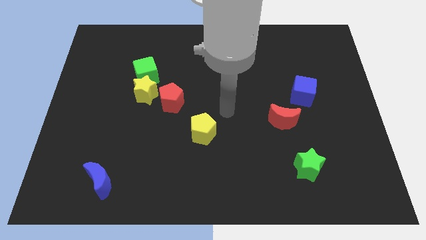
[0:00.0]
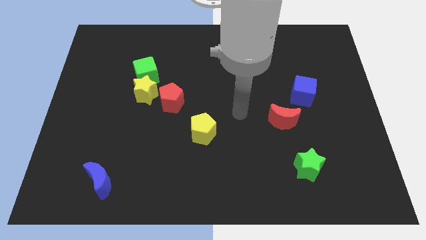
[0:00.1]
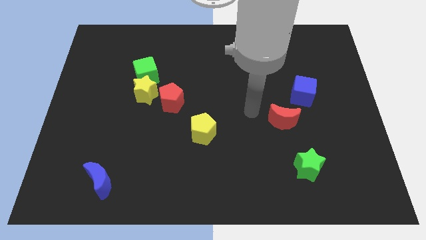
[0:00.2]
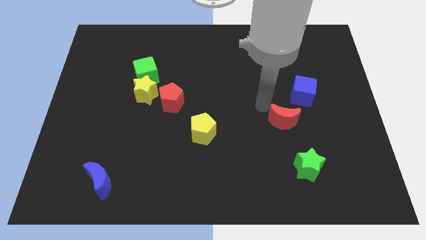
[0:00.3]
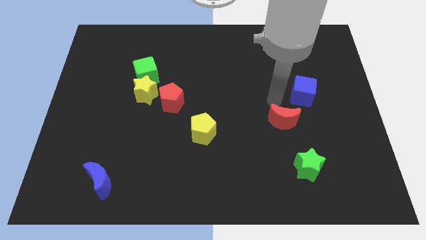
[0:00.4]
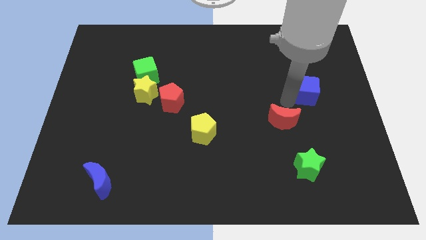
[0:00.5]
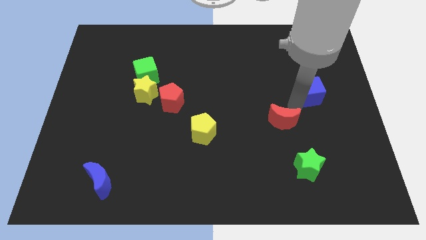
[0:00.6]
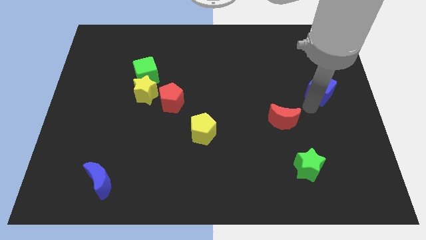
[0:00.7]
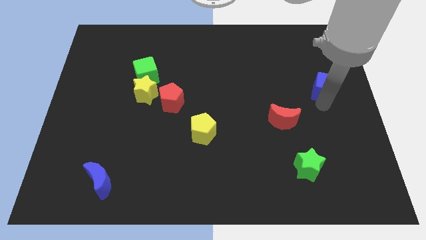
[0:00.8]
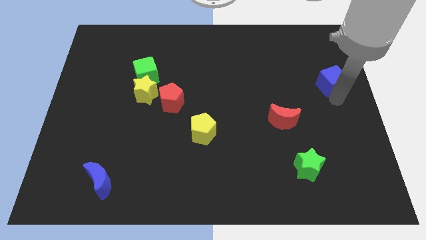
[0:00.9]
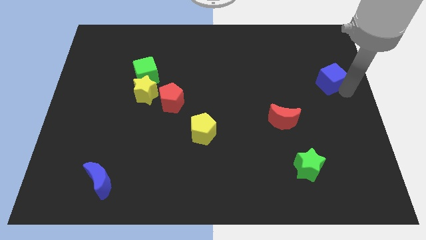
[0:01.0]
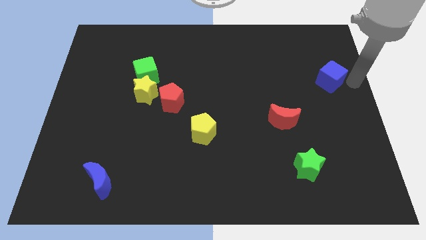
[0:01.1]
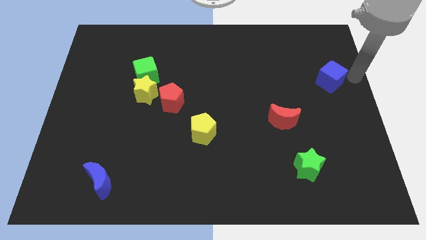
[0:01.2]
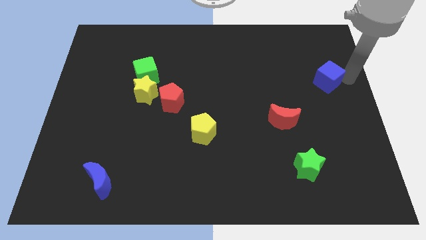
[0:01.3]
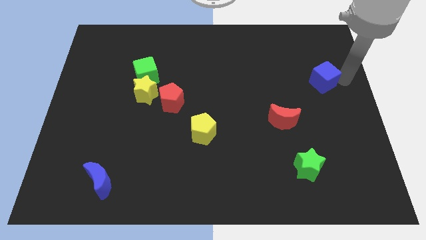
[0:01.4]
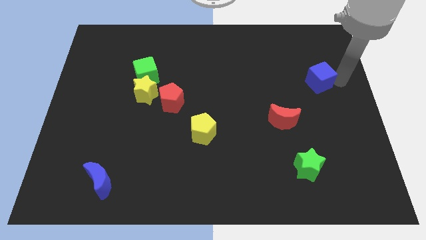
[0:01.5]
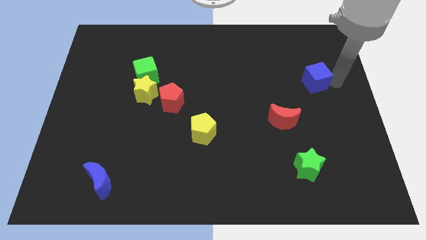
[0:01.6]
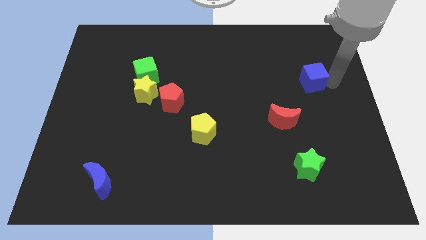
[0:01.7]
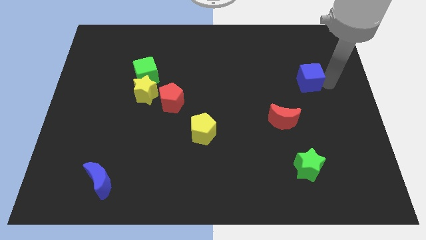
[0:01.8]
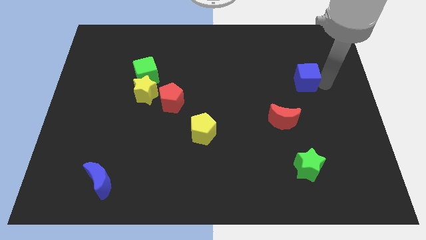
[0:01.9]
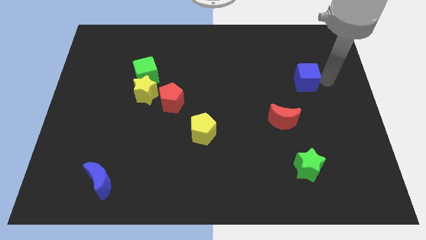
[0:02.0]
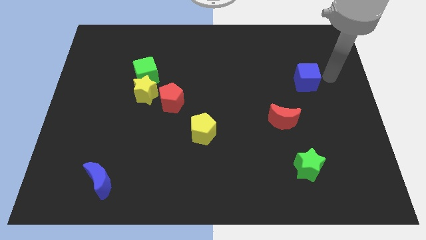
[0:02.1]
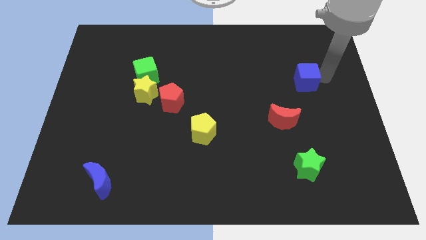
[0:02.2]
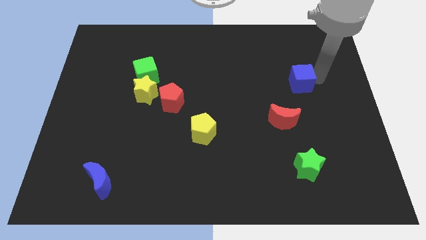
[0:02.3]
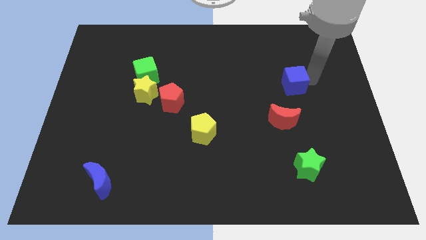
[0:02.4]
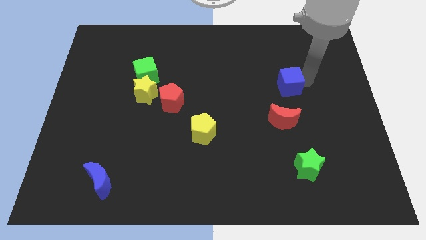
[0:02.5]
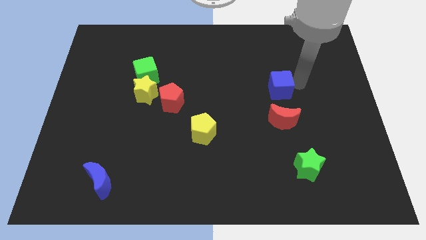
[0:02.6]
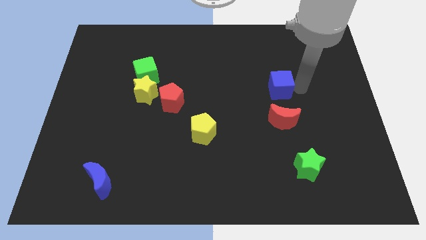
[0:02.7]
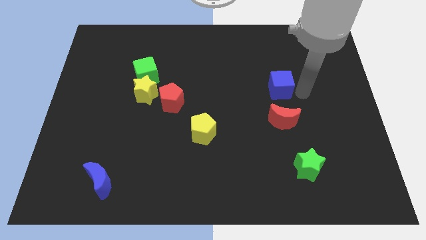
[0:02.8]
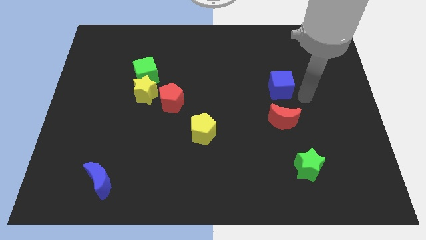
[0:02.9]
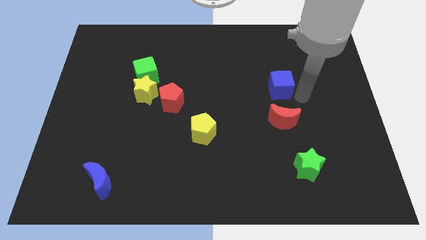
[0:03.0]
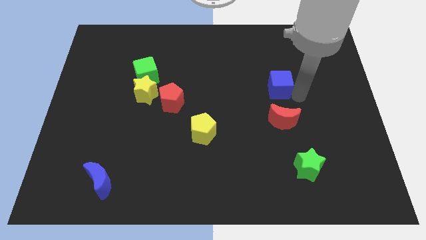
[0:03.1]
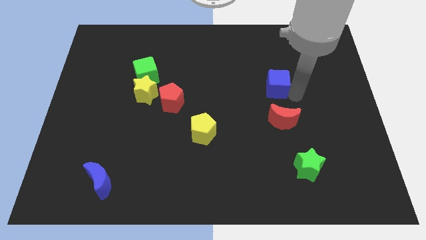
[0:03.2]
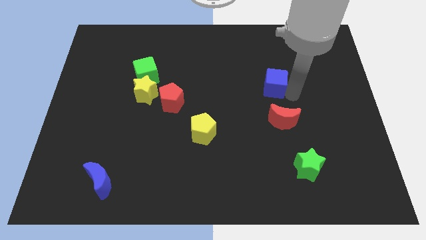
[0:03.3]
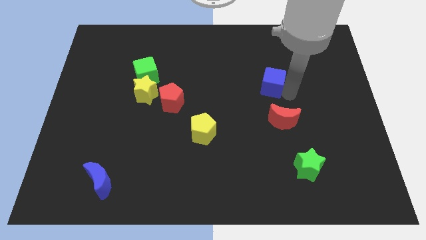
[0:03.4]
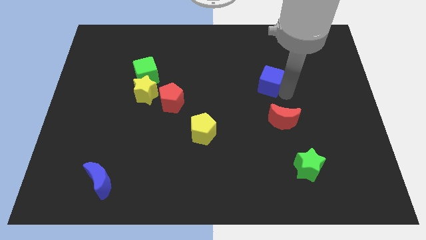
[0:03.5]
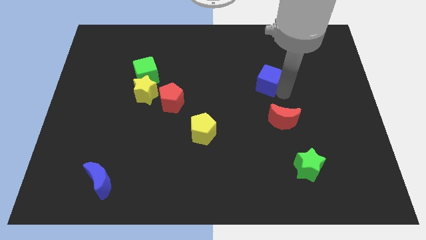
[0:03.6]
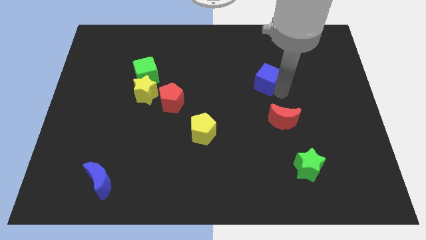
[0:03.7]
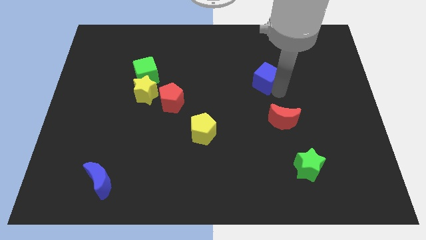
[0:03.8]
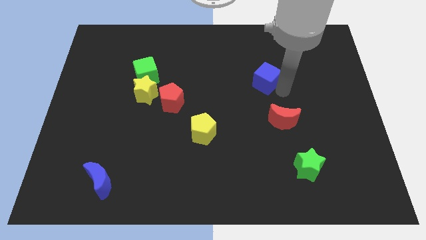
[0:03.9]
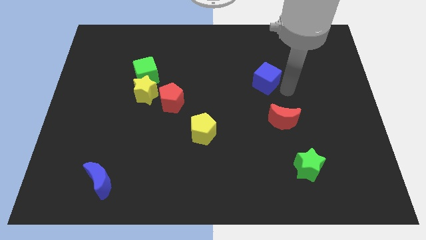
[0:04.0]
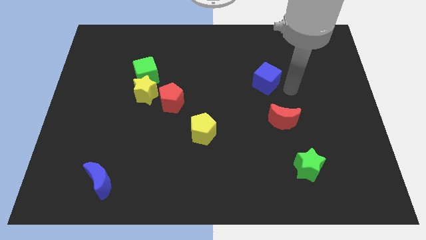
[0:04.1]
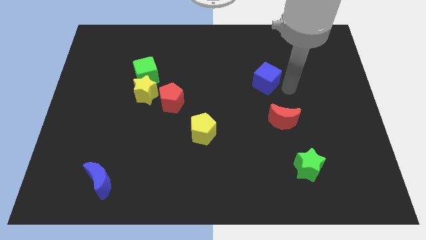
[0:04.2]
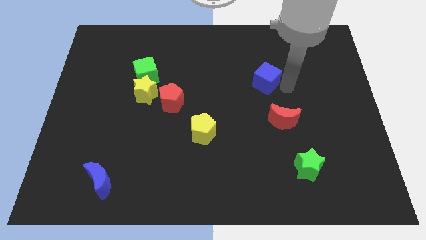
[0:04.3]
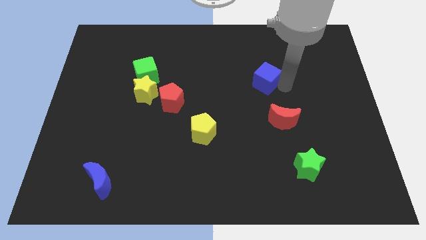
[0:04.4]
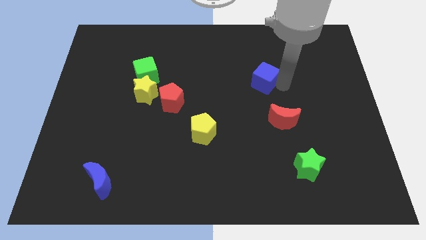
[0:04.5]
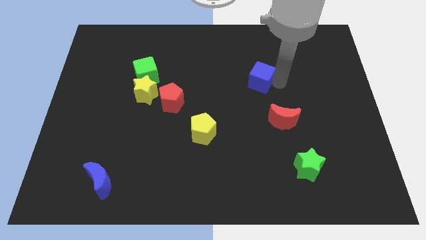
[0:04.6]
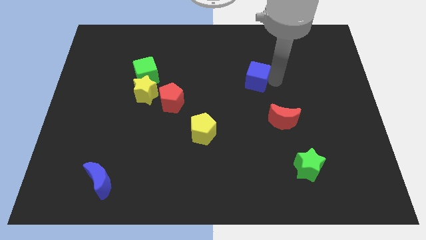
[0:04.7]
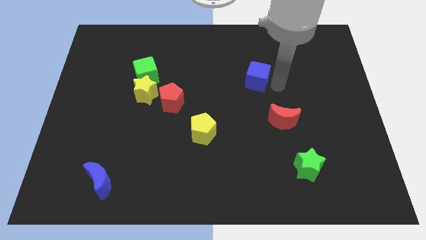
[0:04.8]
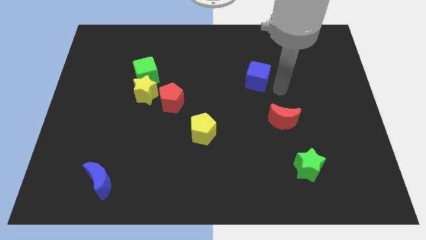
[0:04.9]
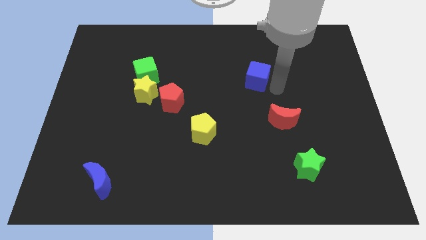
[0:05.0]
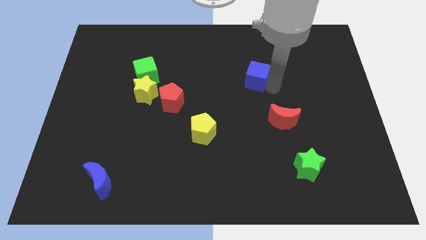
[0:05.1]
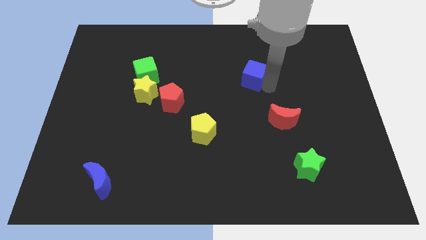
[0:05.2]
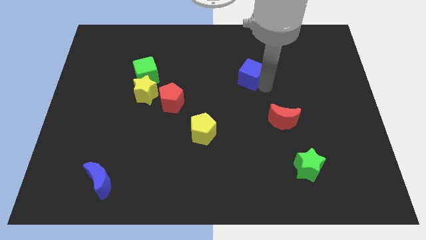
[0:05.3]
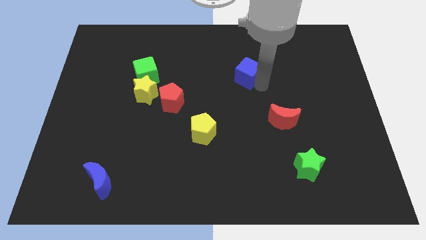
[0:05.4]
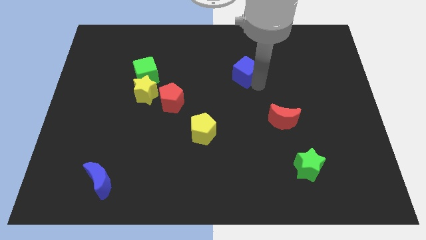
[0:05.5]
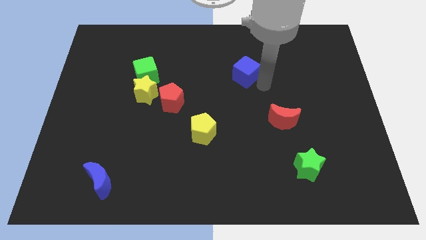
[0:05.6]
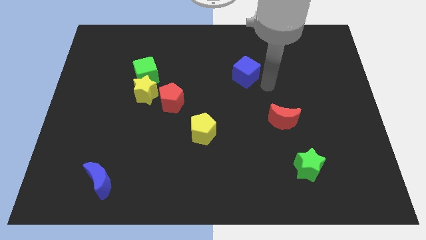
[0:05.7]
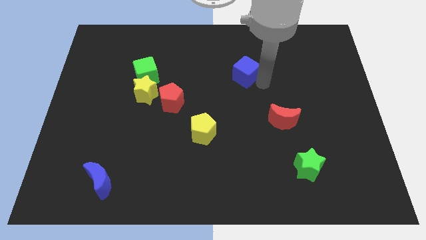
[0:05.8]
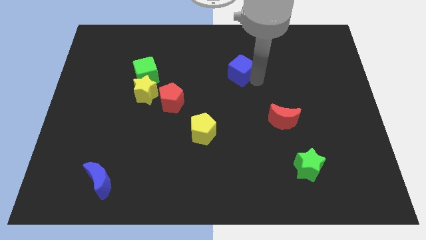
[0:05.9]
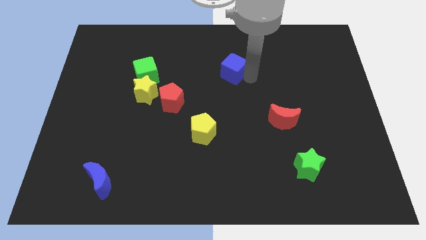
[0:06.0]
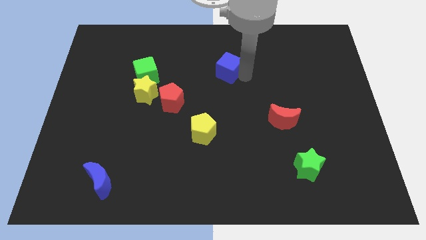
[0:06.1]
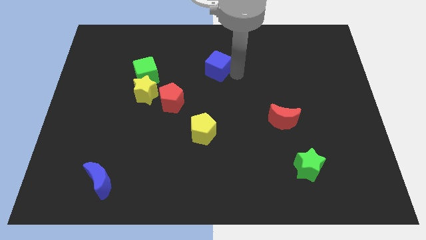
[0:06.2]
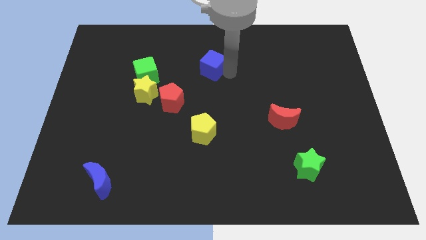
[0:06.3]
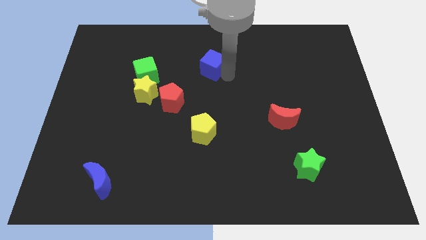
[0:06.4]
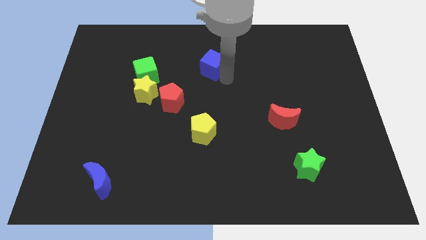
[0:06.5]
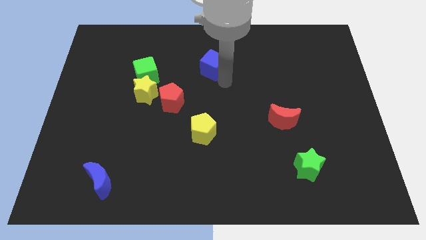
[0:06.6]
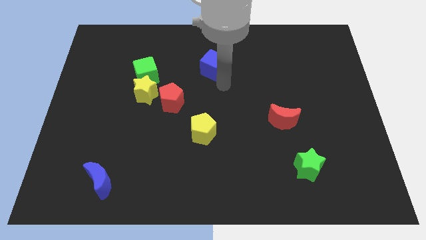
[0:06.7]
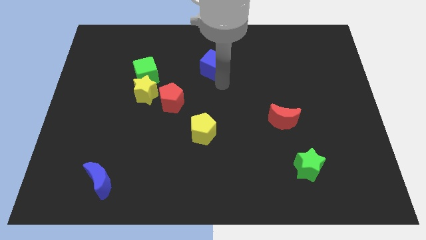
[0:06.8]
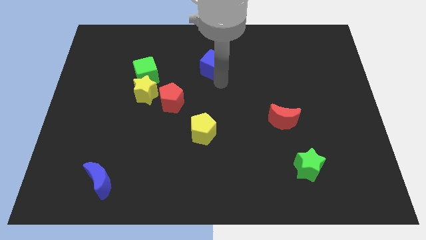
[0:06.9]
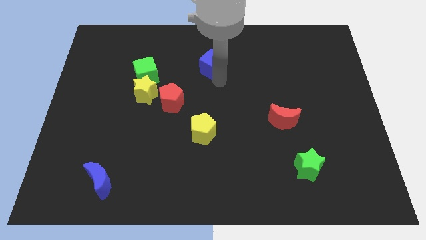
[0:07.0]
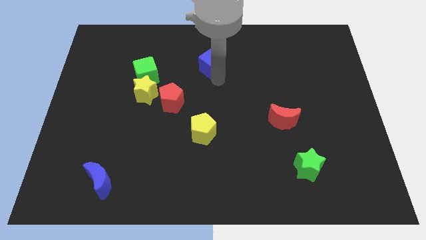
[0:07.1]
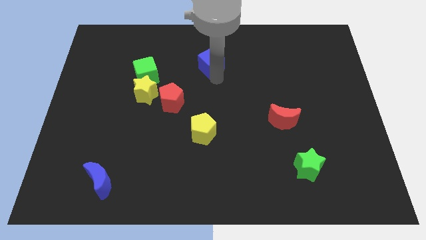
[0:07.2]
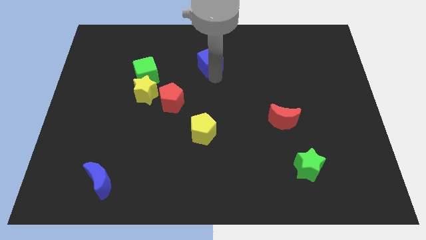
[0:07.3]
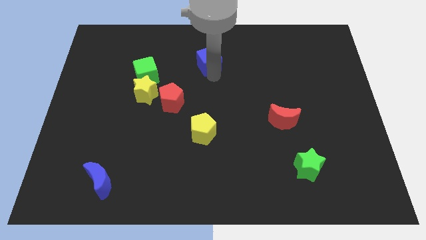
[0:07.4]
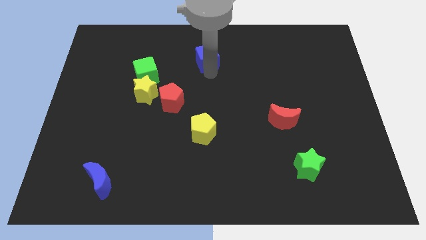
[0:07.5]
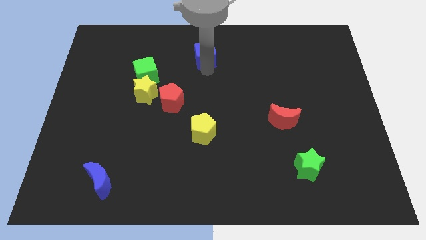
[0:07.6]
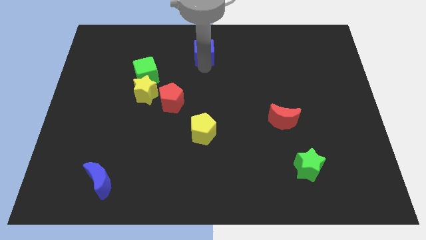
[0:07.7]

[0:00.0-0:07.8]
slide the blue cube to the top side
